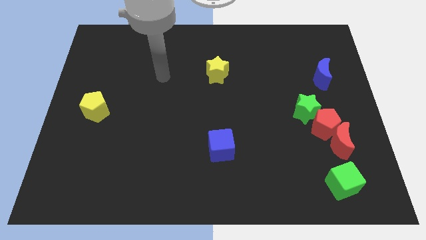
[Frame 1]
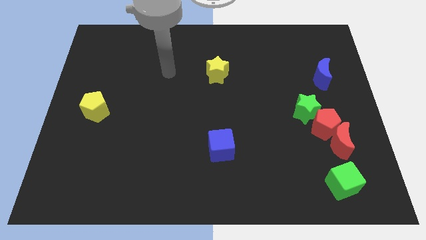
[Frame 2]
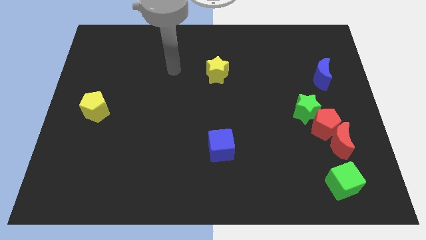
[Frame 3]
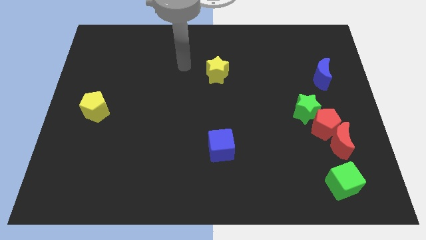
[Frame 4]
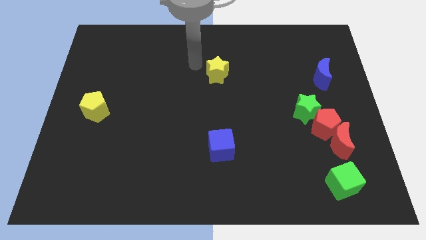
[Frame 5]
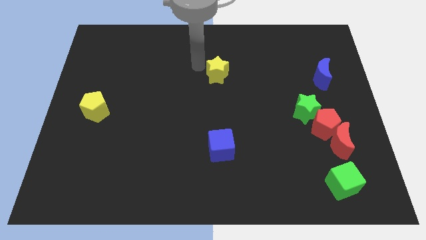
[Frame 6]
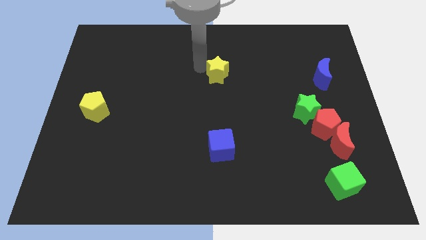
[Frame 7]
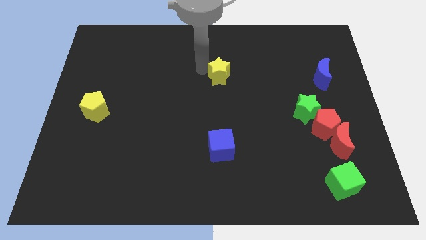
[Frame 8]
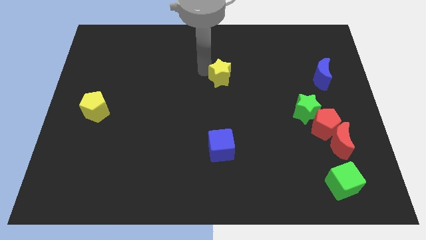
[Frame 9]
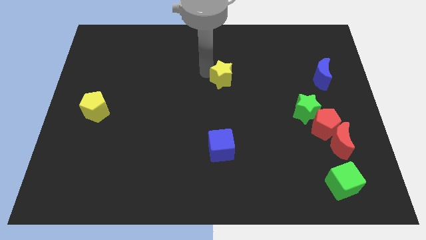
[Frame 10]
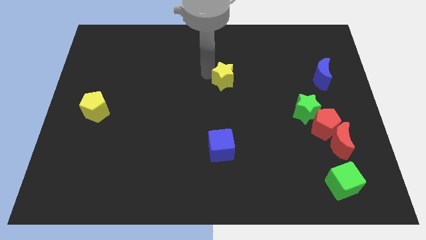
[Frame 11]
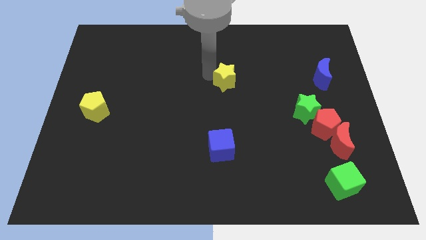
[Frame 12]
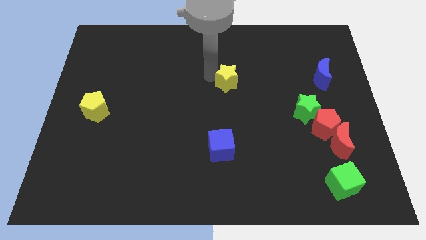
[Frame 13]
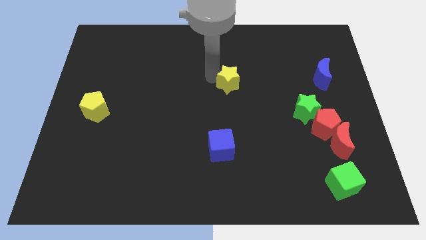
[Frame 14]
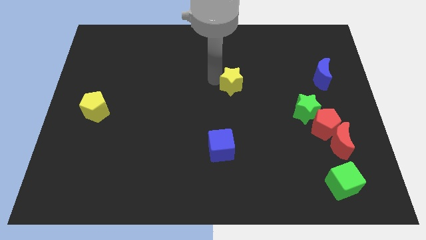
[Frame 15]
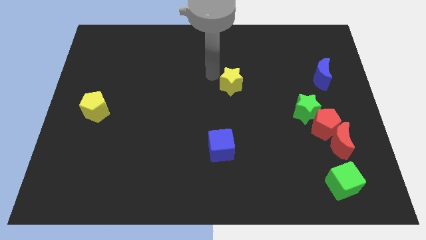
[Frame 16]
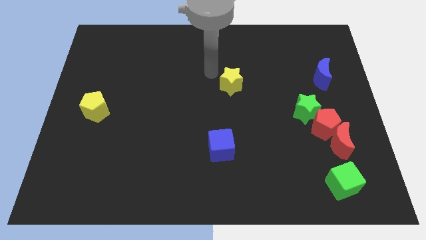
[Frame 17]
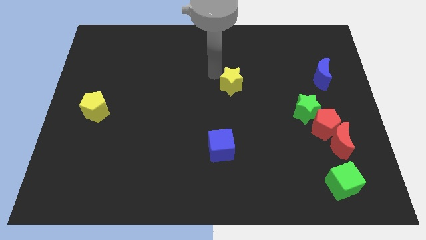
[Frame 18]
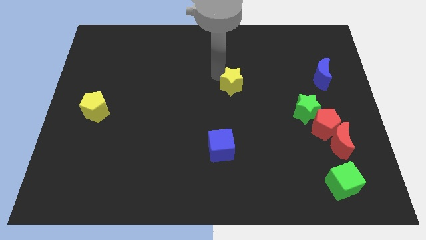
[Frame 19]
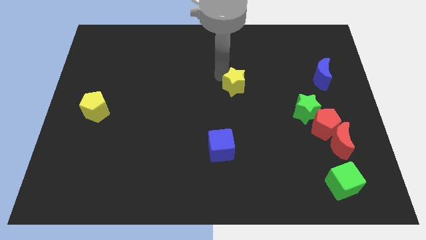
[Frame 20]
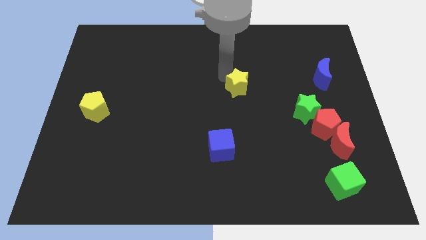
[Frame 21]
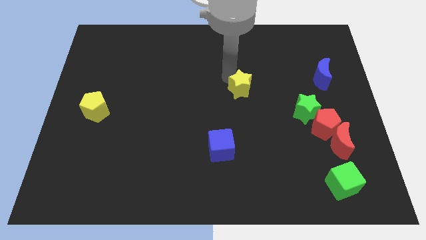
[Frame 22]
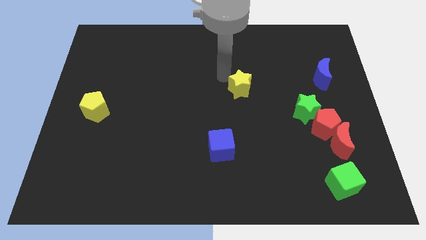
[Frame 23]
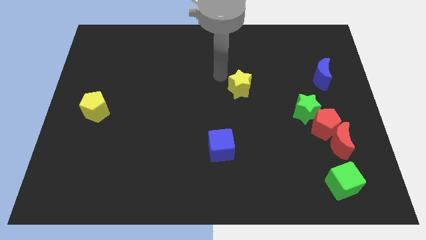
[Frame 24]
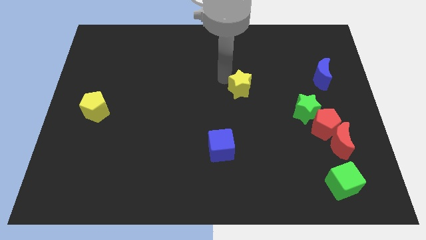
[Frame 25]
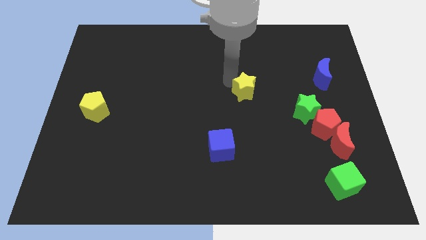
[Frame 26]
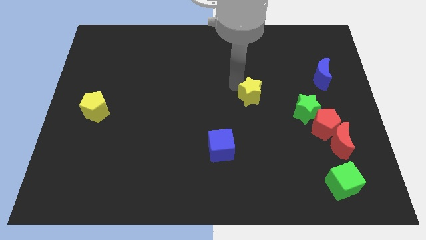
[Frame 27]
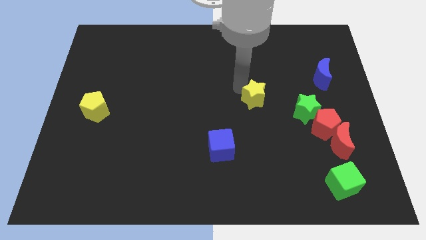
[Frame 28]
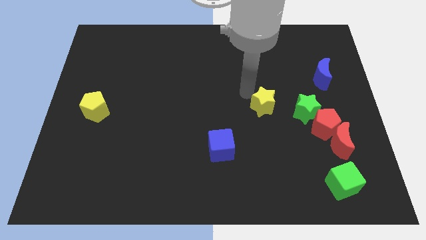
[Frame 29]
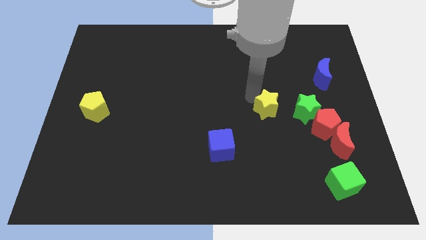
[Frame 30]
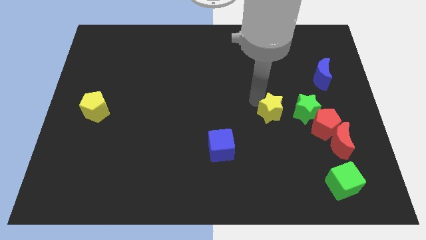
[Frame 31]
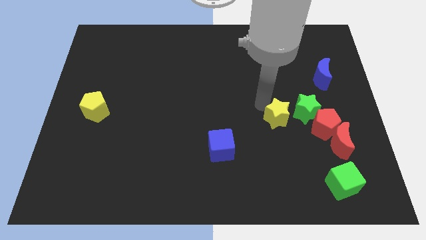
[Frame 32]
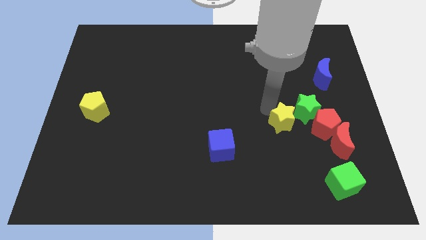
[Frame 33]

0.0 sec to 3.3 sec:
push the yellow star downwards and then to the right

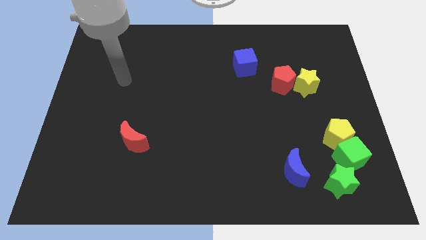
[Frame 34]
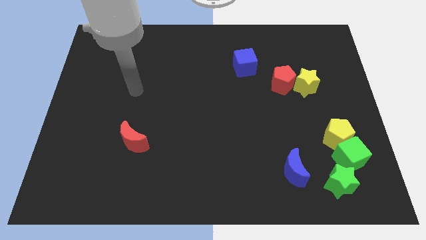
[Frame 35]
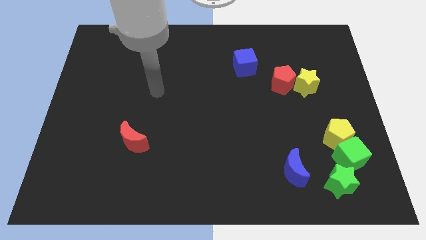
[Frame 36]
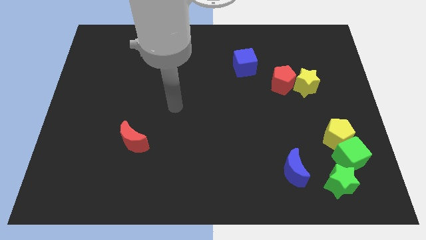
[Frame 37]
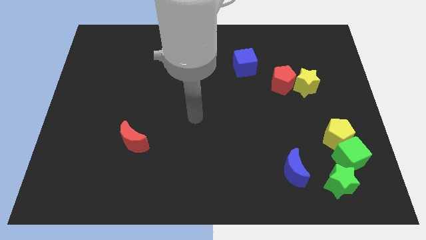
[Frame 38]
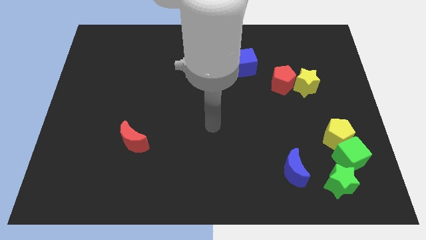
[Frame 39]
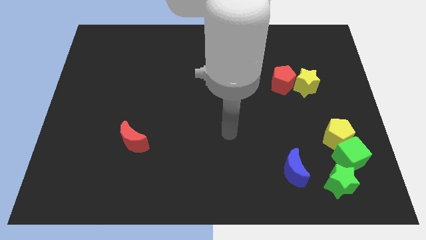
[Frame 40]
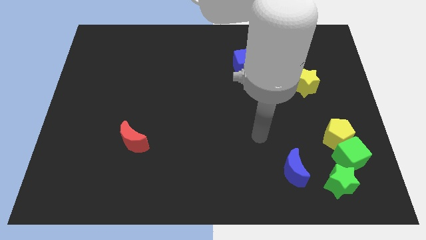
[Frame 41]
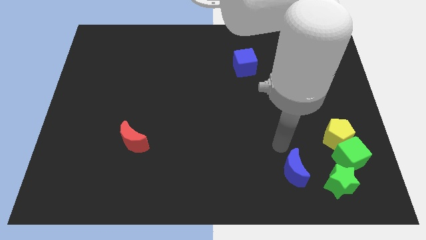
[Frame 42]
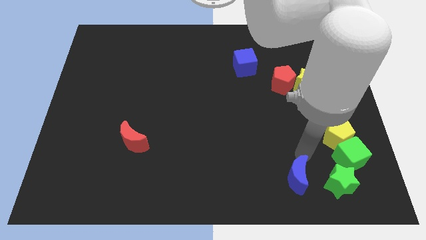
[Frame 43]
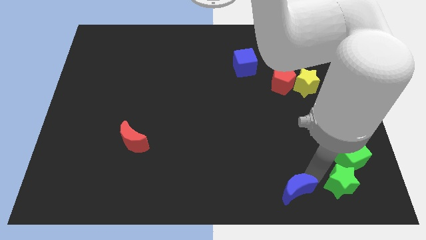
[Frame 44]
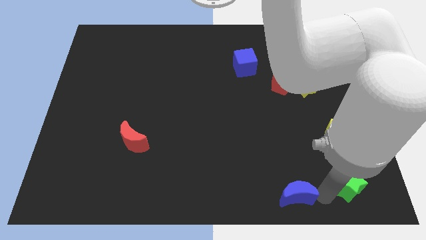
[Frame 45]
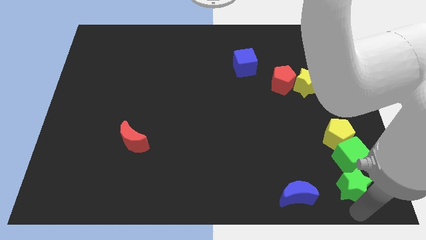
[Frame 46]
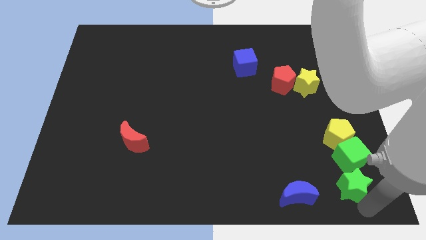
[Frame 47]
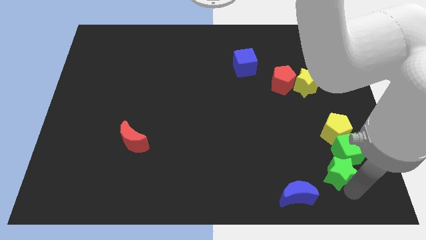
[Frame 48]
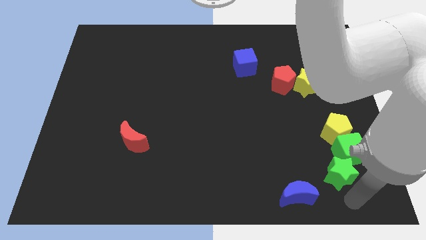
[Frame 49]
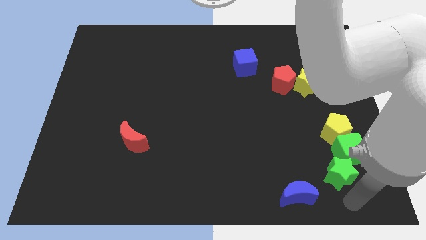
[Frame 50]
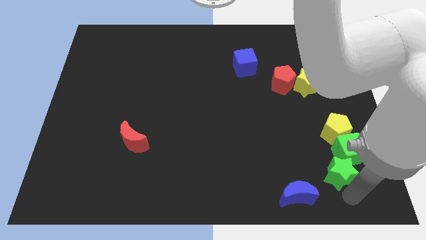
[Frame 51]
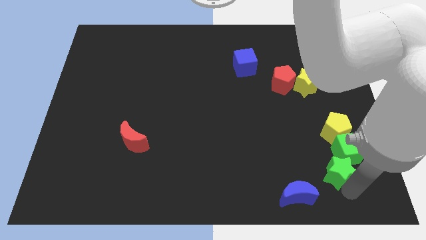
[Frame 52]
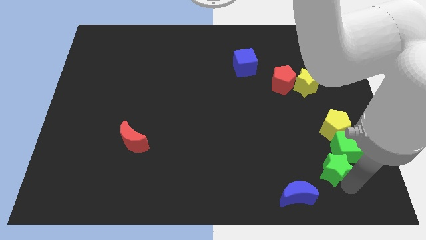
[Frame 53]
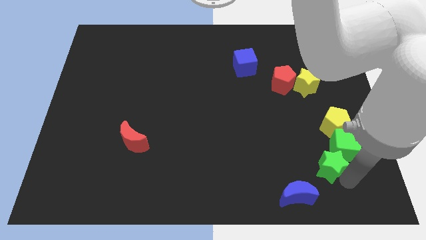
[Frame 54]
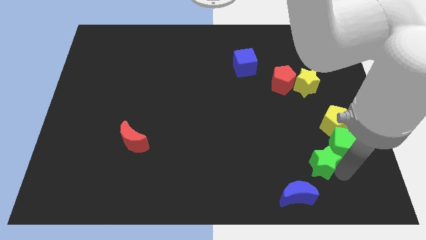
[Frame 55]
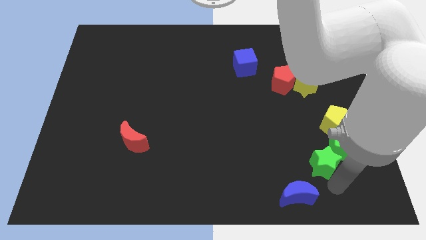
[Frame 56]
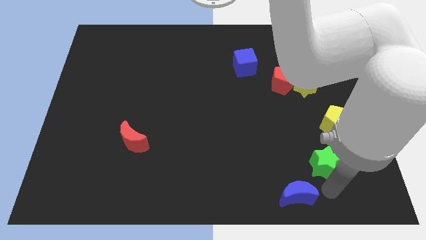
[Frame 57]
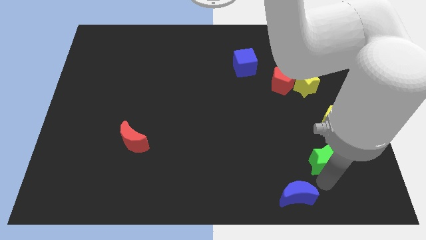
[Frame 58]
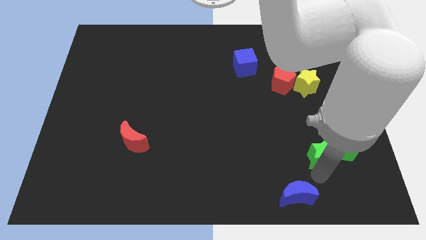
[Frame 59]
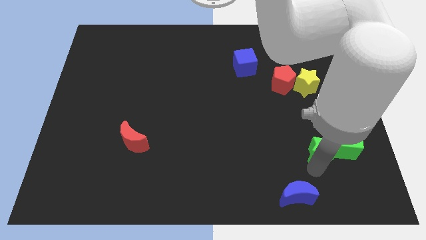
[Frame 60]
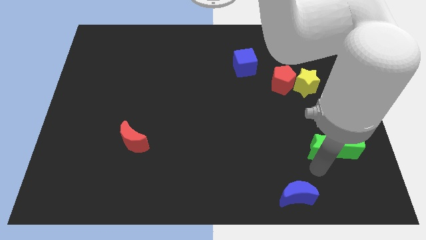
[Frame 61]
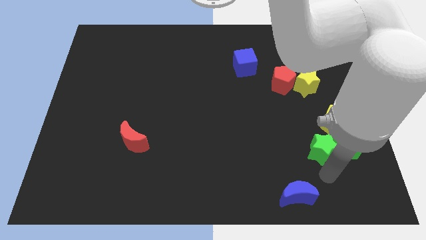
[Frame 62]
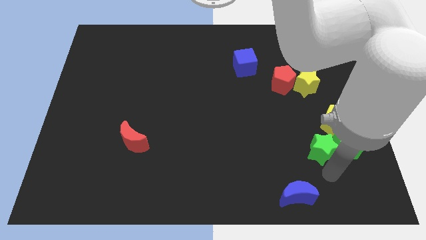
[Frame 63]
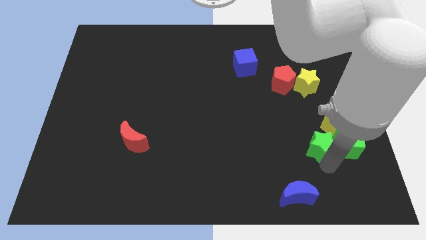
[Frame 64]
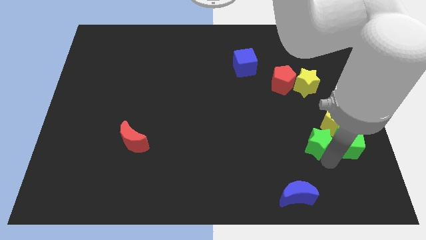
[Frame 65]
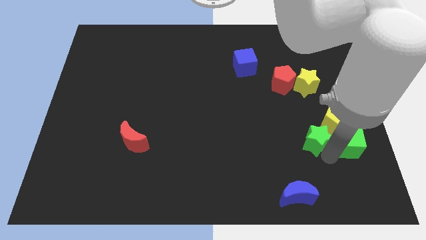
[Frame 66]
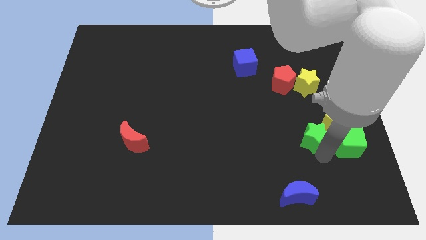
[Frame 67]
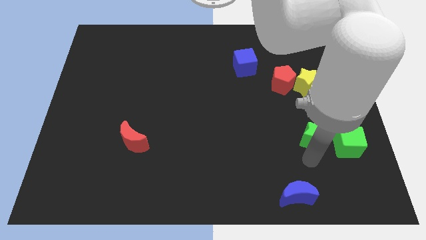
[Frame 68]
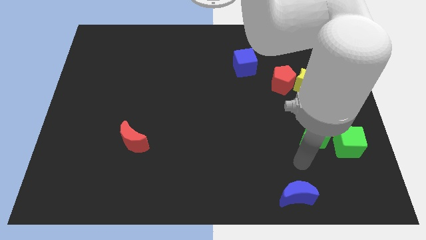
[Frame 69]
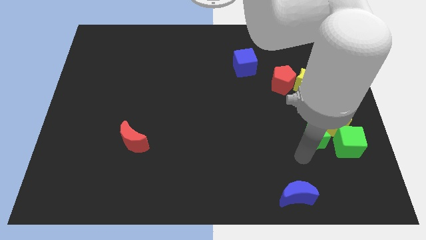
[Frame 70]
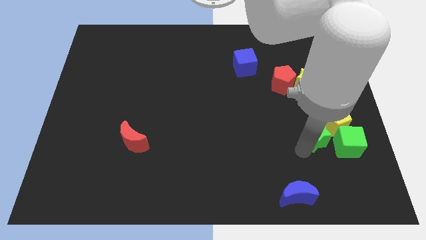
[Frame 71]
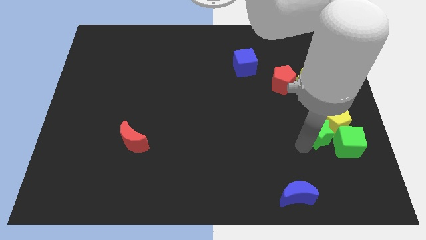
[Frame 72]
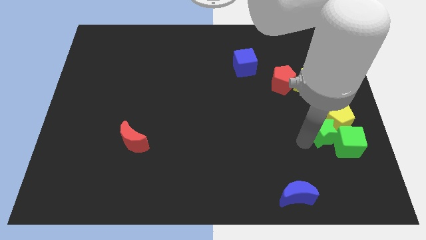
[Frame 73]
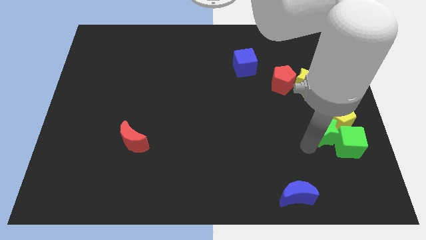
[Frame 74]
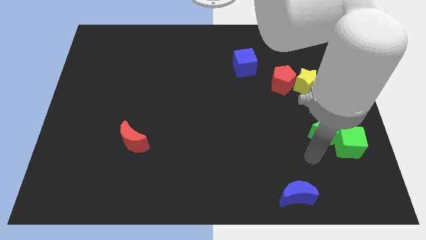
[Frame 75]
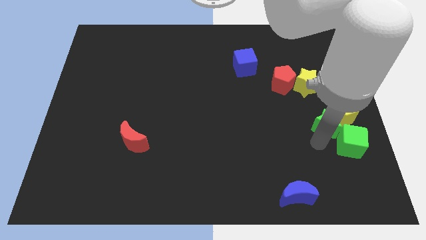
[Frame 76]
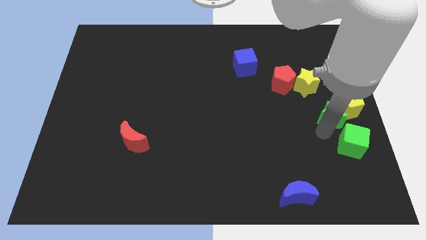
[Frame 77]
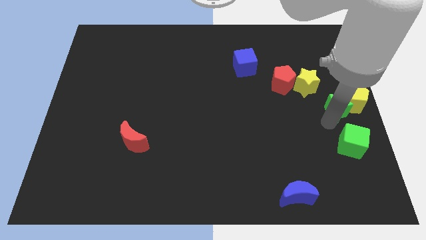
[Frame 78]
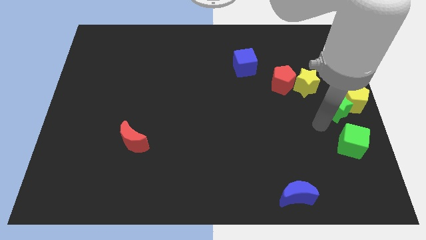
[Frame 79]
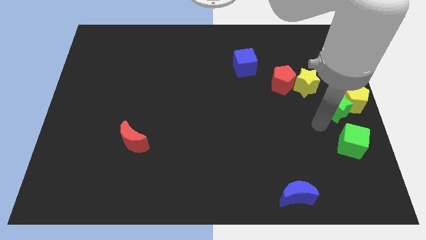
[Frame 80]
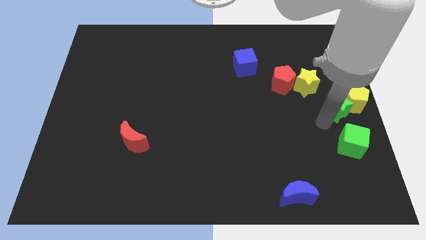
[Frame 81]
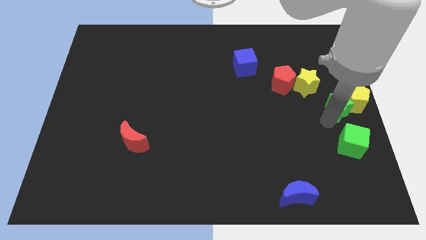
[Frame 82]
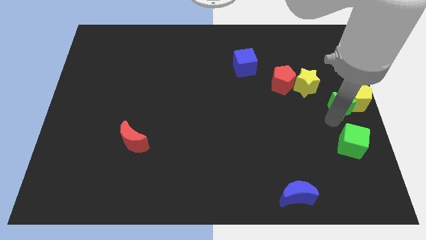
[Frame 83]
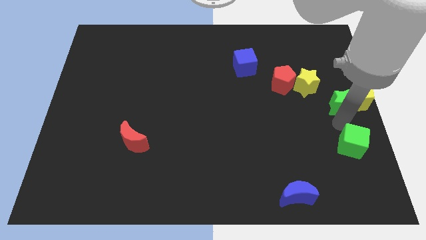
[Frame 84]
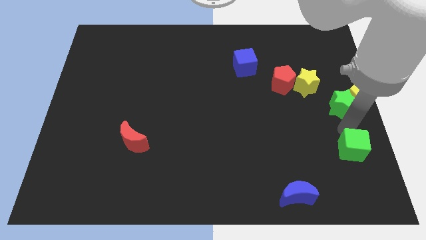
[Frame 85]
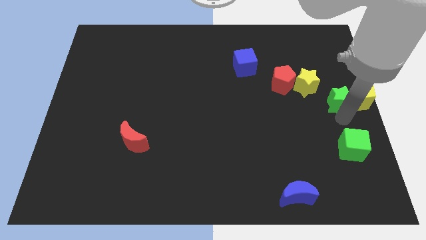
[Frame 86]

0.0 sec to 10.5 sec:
slide the green star upwards
